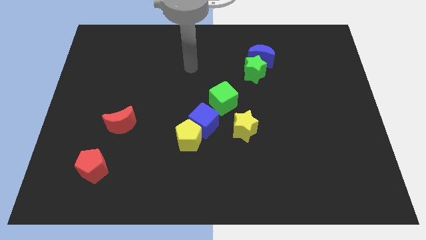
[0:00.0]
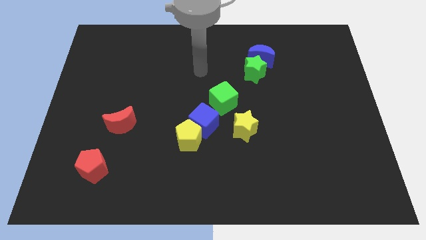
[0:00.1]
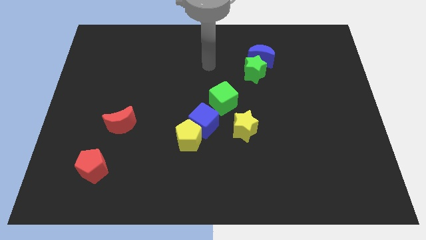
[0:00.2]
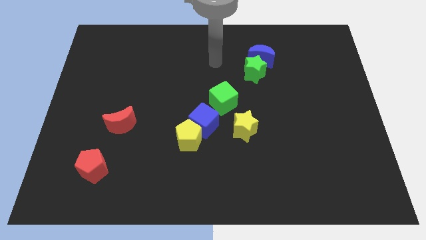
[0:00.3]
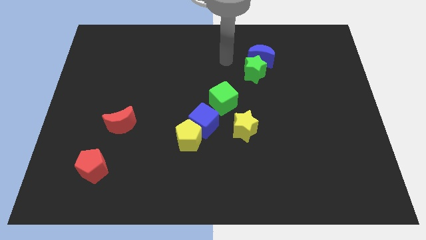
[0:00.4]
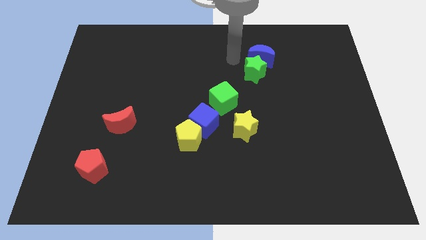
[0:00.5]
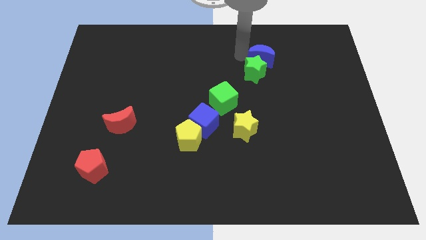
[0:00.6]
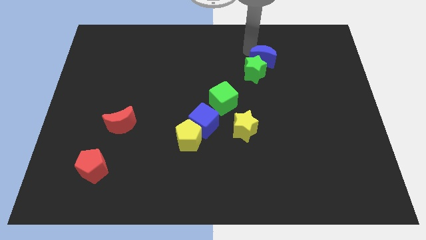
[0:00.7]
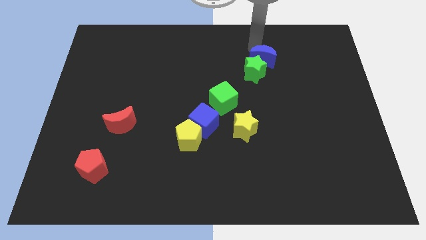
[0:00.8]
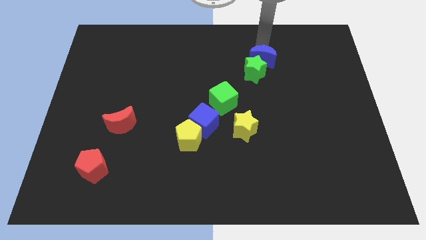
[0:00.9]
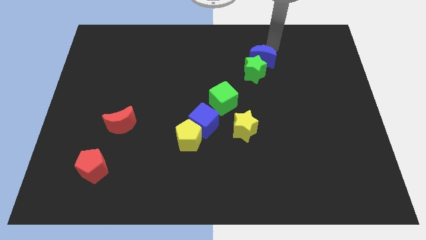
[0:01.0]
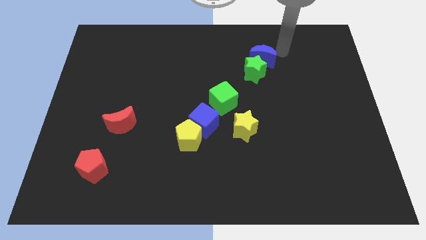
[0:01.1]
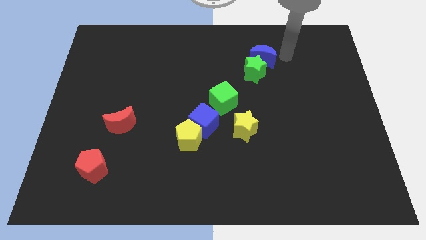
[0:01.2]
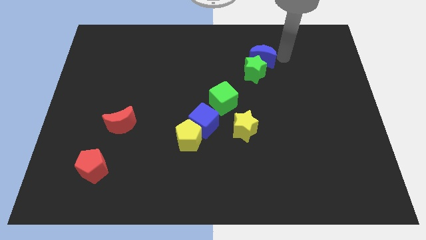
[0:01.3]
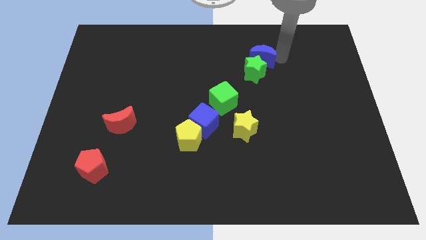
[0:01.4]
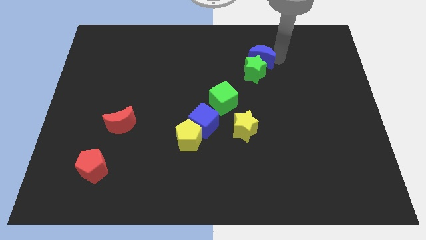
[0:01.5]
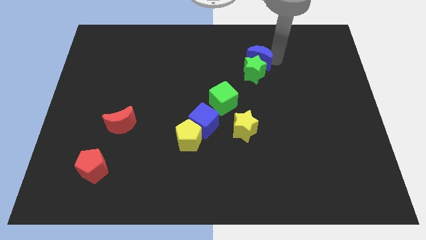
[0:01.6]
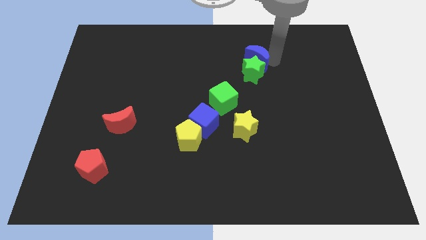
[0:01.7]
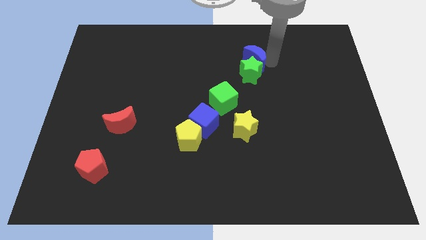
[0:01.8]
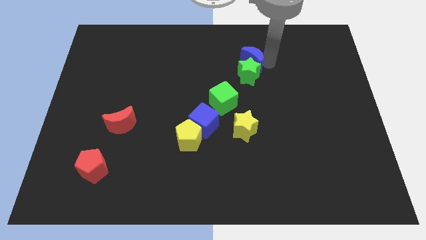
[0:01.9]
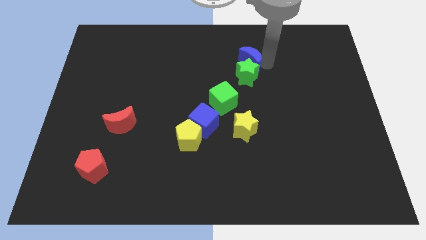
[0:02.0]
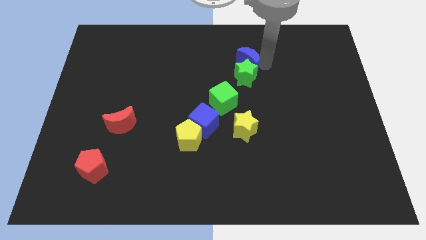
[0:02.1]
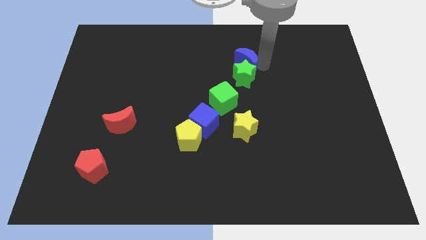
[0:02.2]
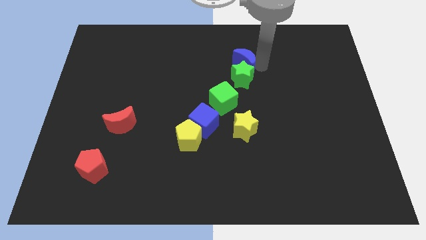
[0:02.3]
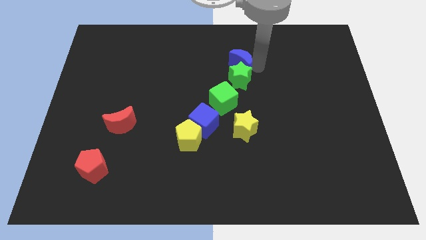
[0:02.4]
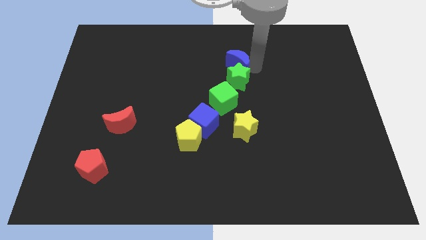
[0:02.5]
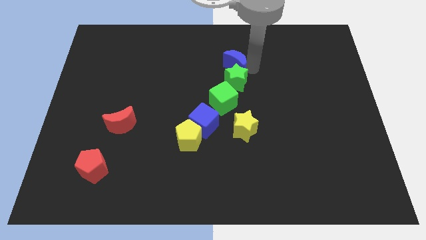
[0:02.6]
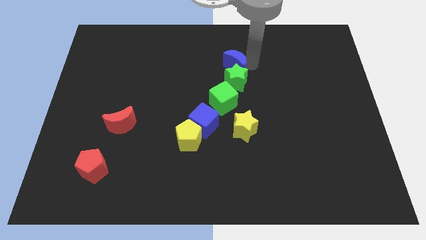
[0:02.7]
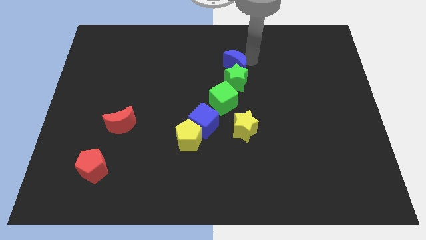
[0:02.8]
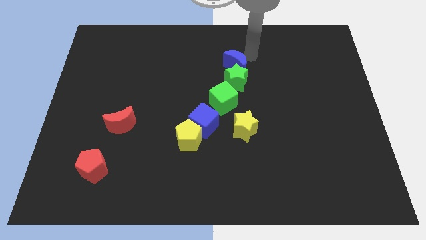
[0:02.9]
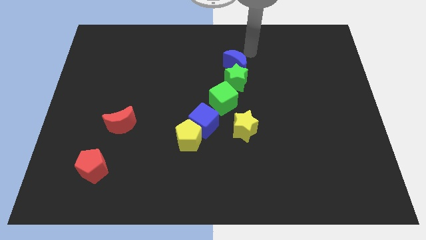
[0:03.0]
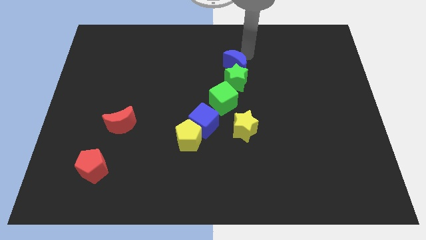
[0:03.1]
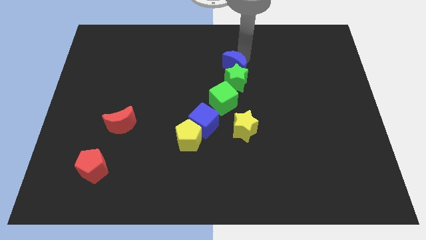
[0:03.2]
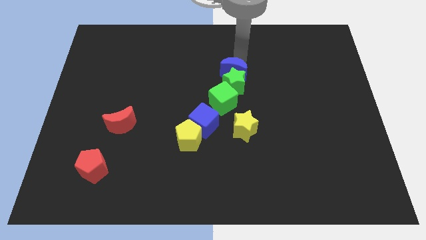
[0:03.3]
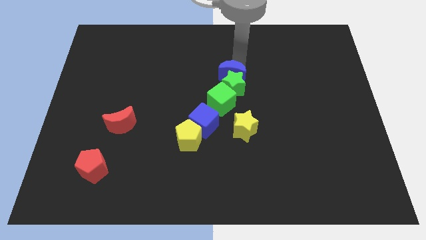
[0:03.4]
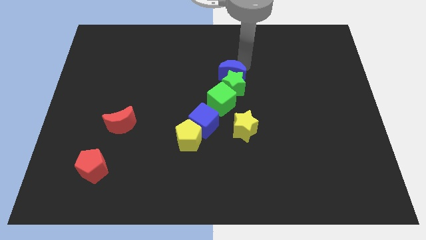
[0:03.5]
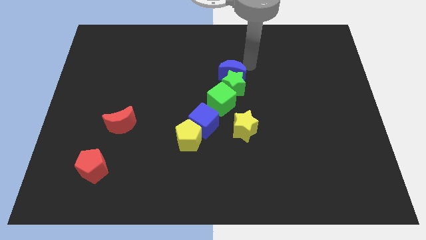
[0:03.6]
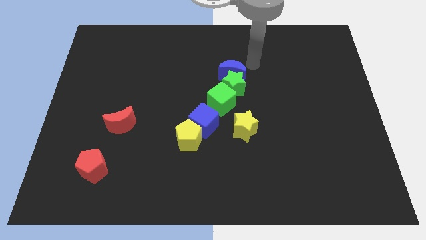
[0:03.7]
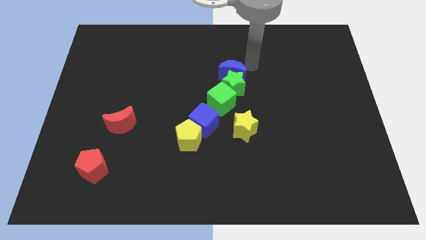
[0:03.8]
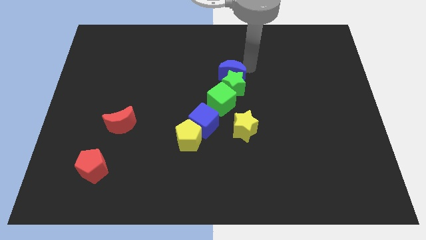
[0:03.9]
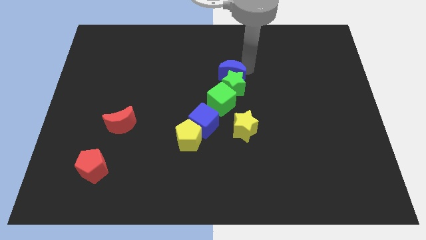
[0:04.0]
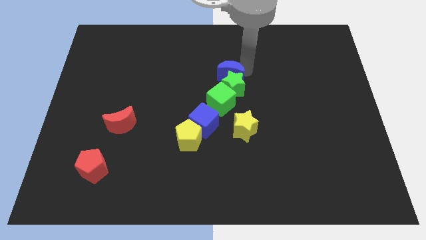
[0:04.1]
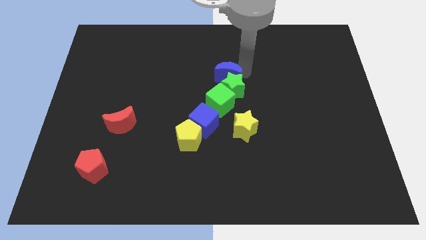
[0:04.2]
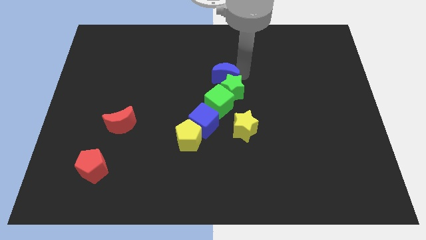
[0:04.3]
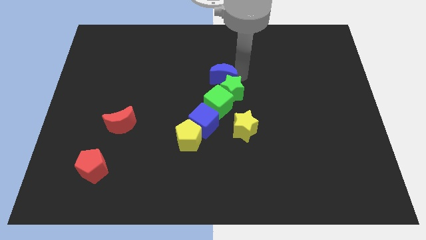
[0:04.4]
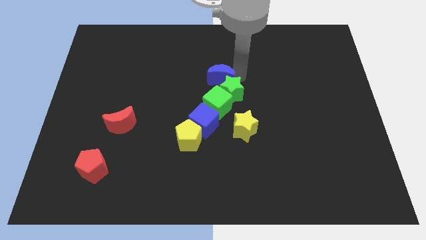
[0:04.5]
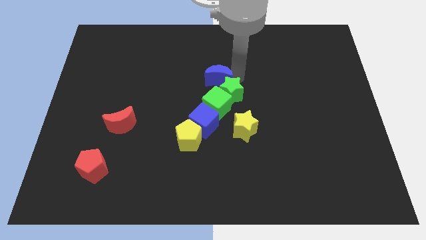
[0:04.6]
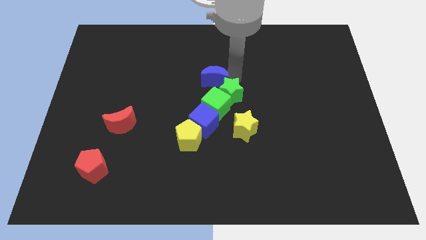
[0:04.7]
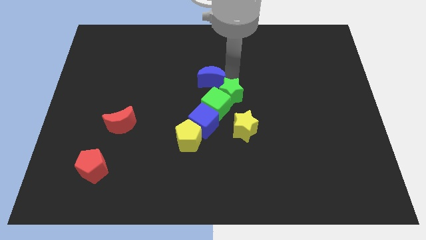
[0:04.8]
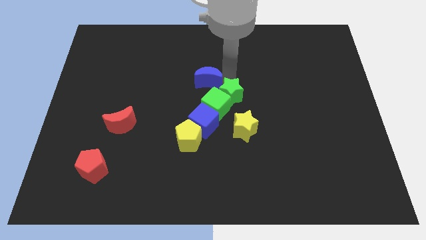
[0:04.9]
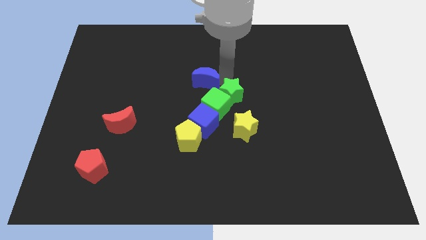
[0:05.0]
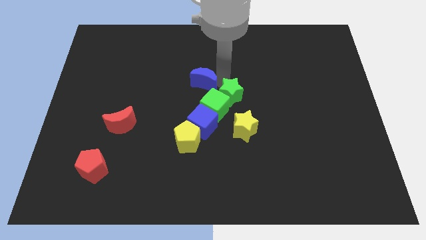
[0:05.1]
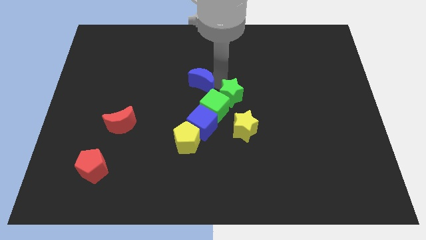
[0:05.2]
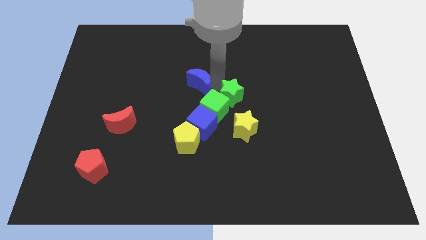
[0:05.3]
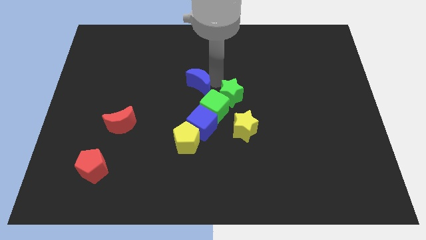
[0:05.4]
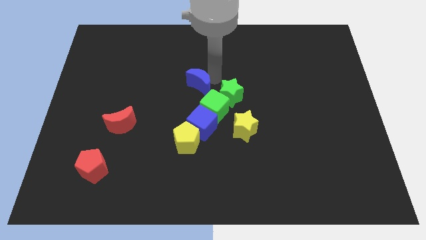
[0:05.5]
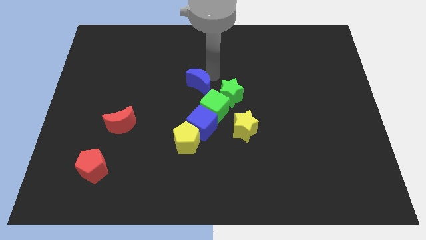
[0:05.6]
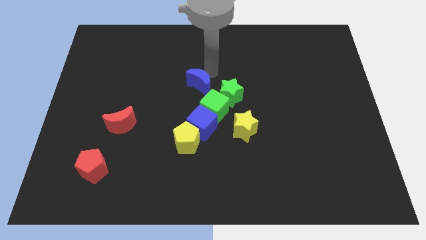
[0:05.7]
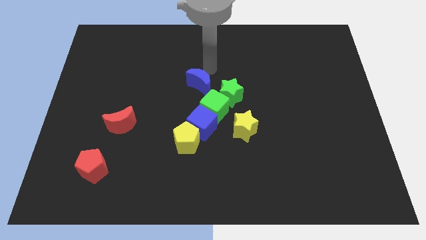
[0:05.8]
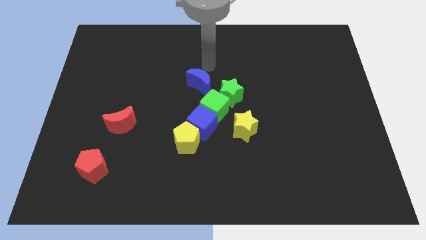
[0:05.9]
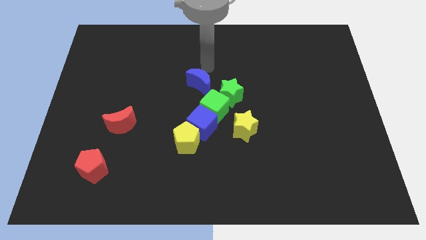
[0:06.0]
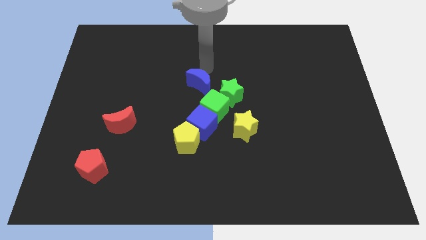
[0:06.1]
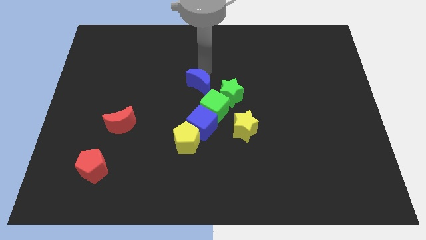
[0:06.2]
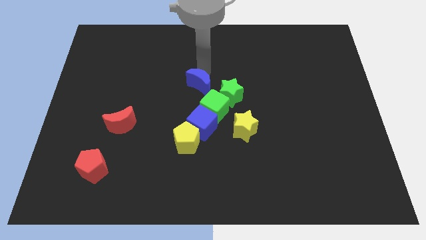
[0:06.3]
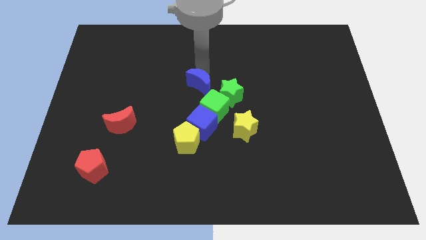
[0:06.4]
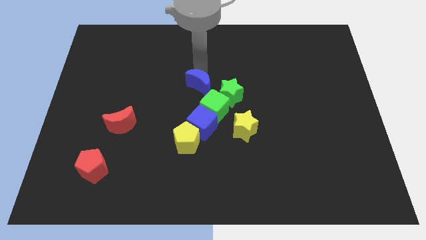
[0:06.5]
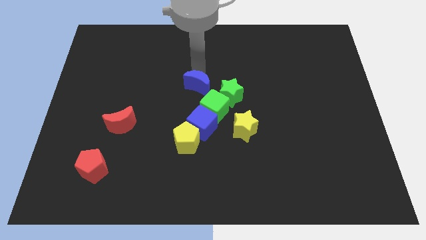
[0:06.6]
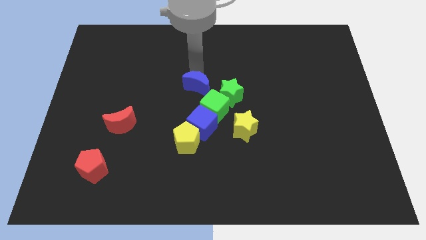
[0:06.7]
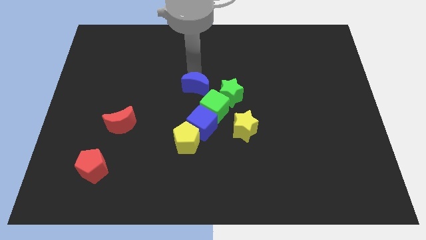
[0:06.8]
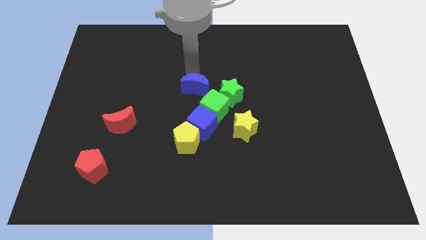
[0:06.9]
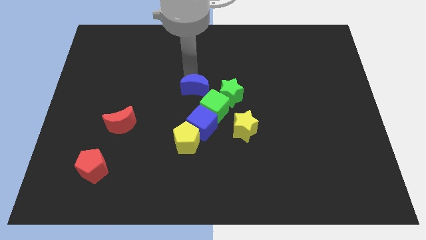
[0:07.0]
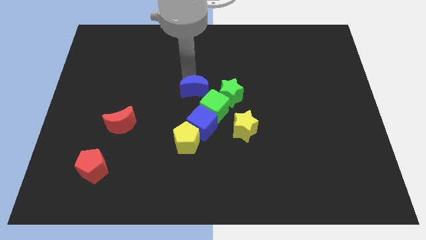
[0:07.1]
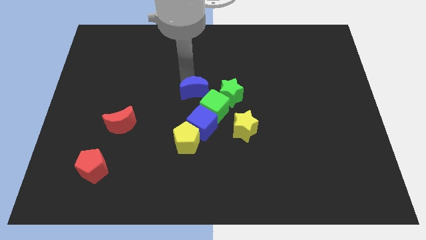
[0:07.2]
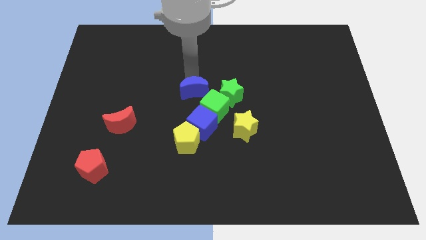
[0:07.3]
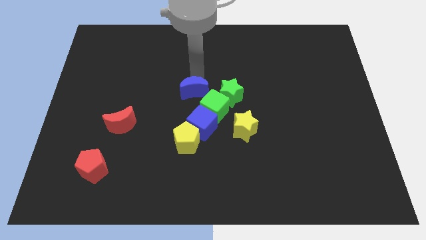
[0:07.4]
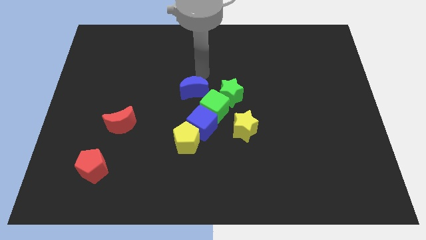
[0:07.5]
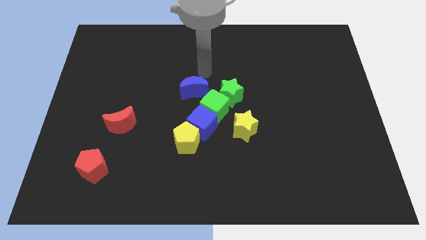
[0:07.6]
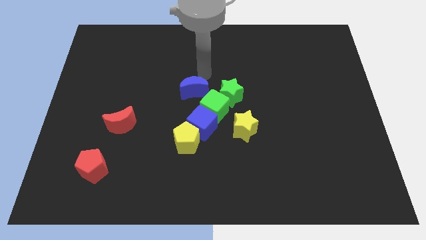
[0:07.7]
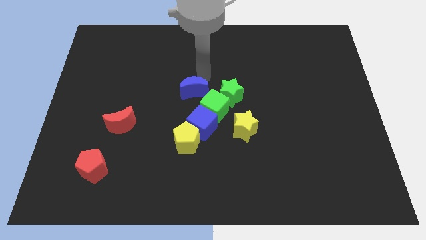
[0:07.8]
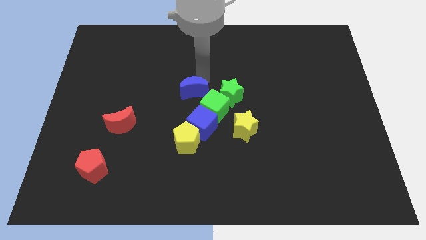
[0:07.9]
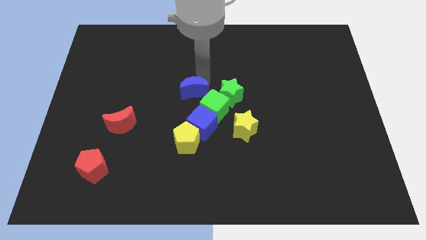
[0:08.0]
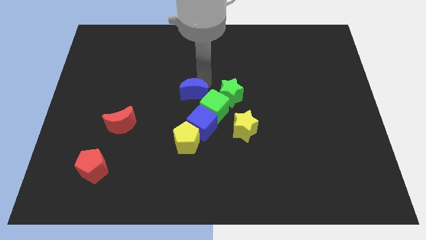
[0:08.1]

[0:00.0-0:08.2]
move the blue moon downwards and then to the left
